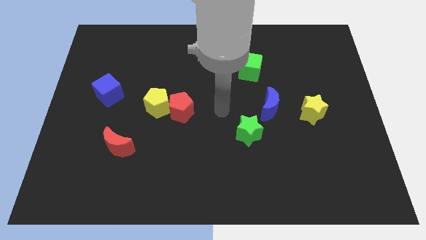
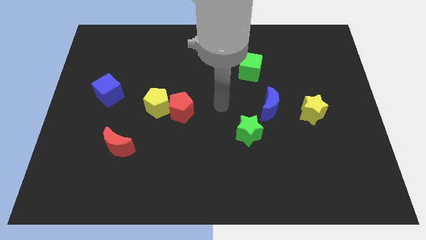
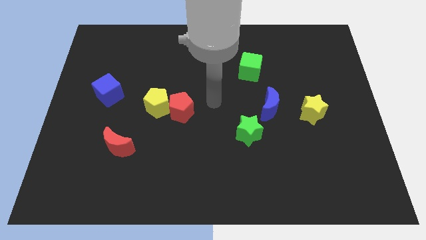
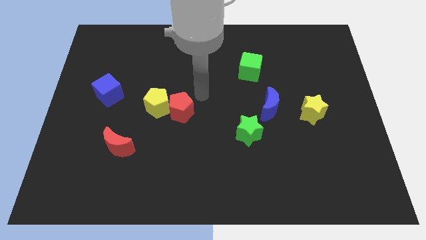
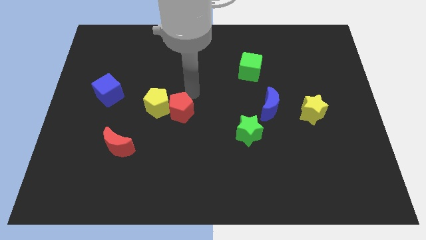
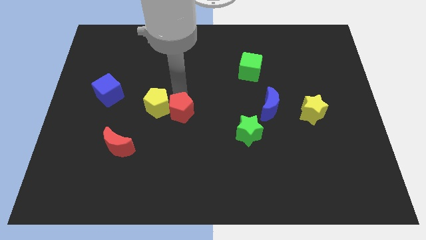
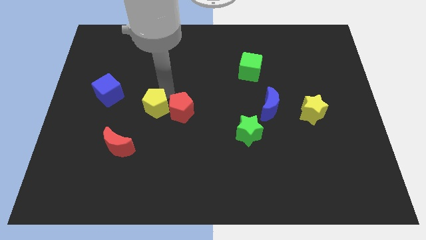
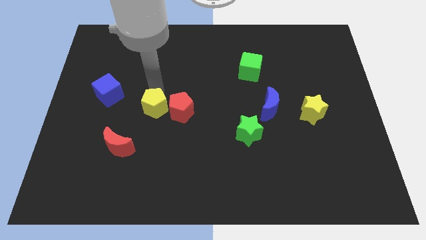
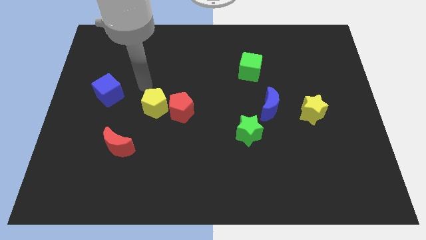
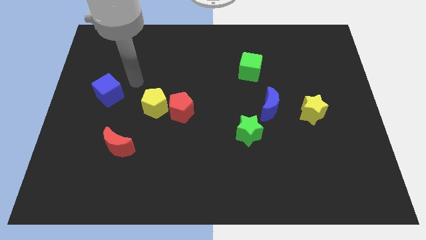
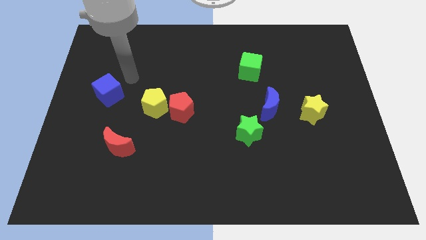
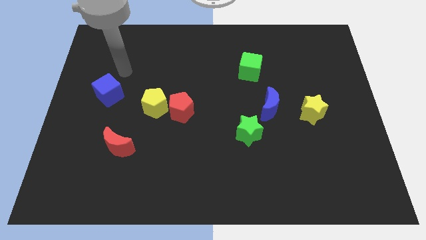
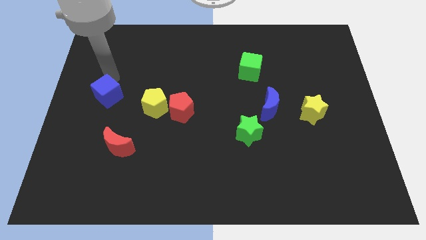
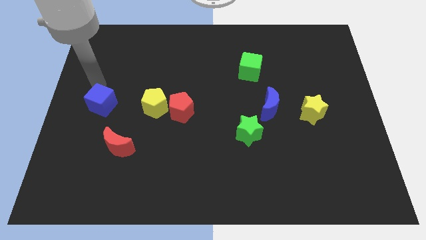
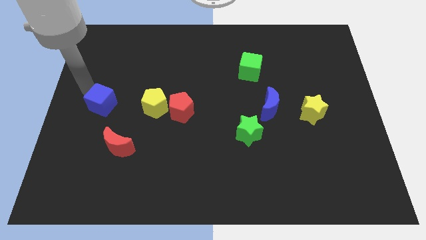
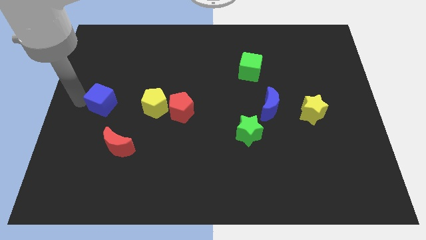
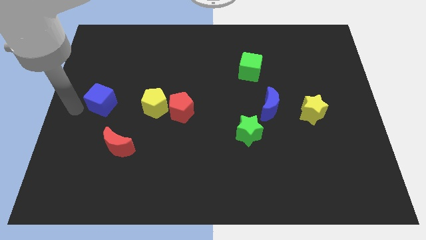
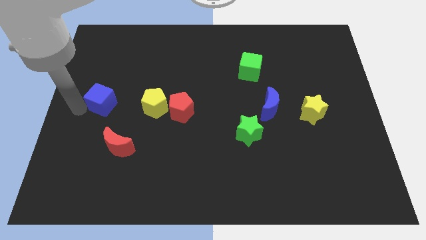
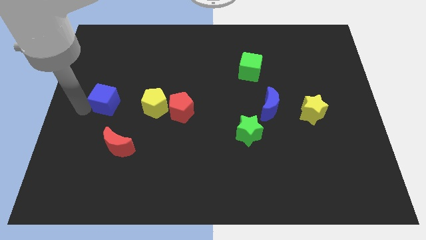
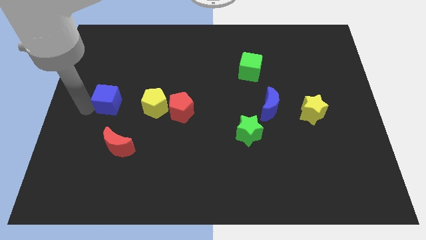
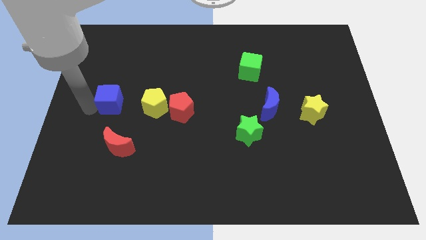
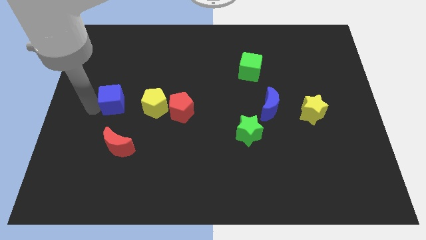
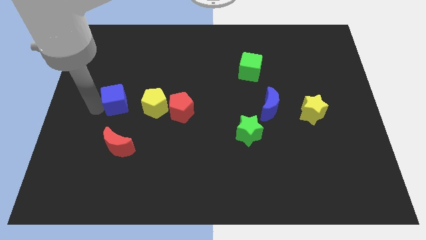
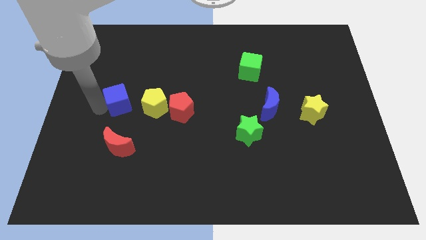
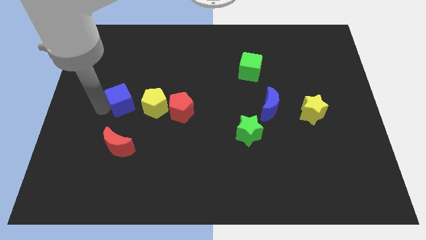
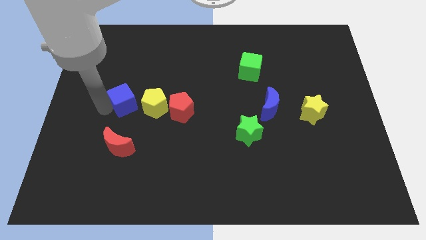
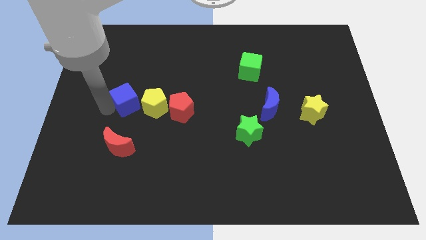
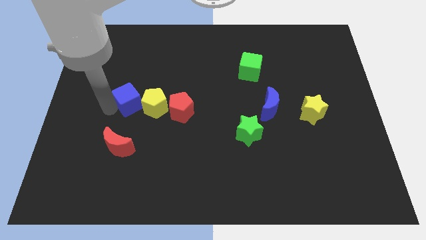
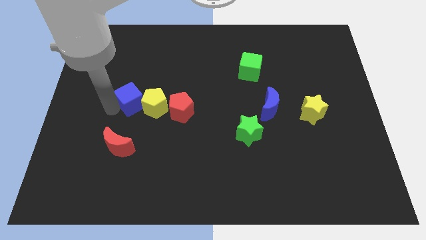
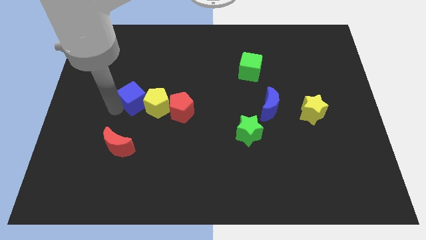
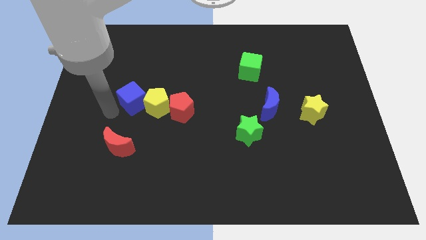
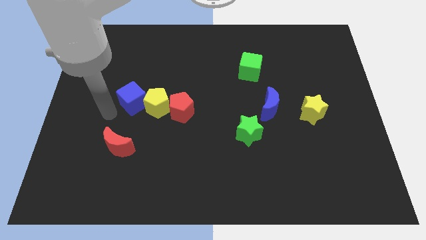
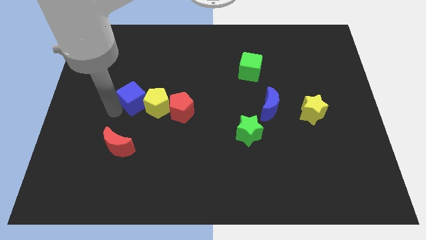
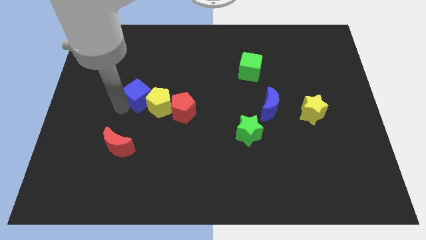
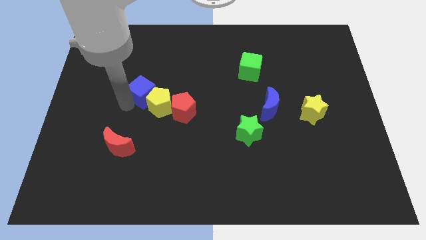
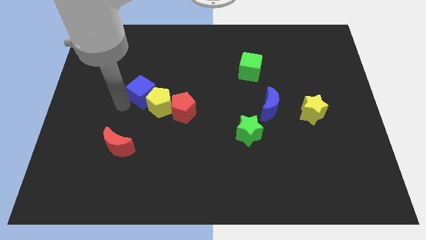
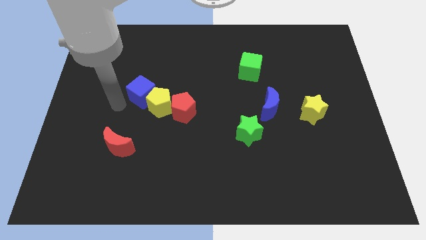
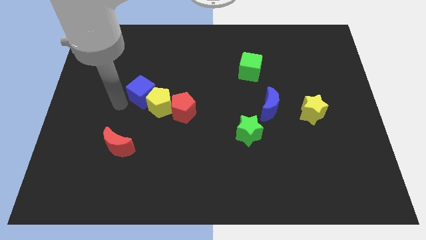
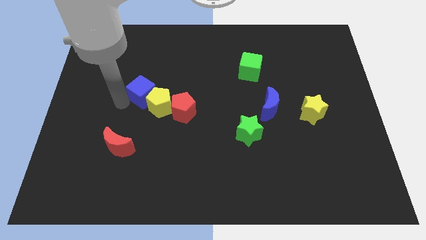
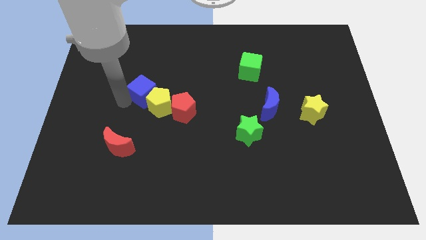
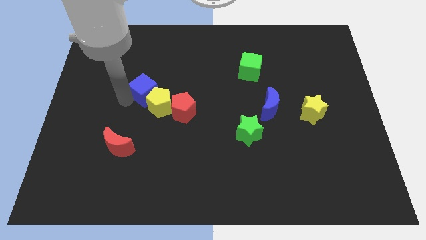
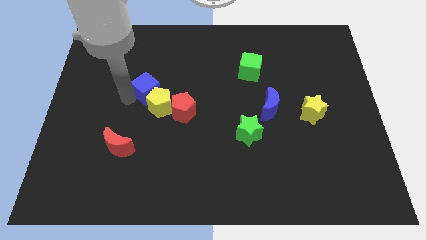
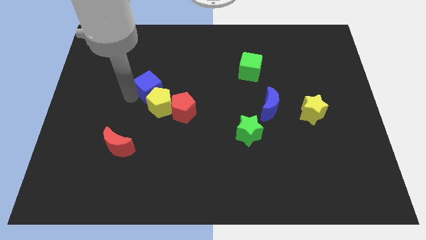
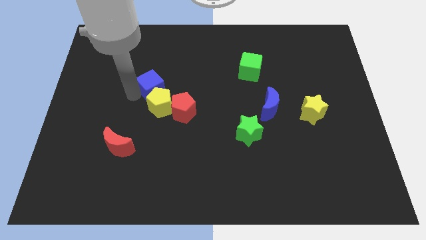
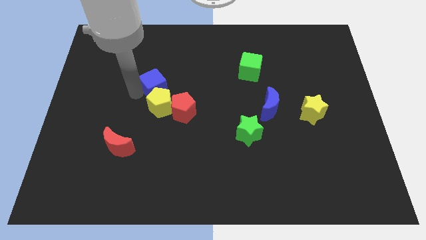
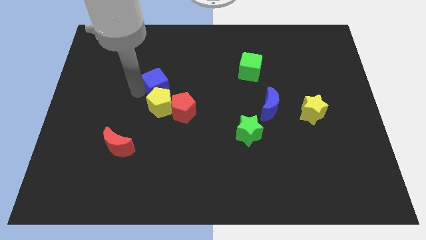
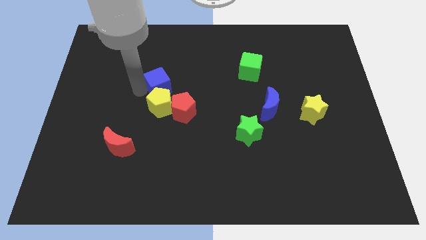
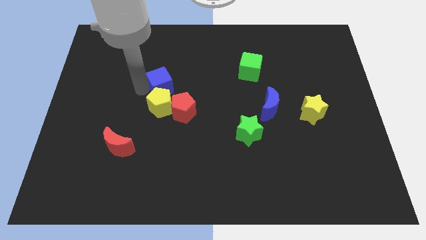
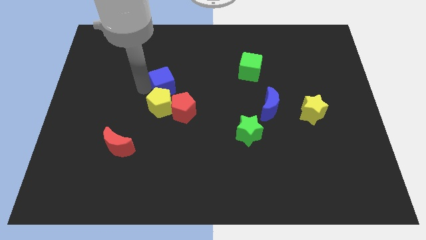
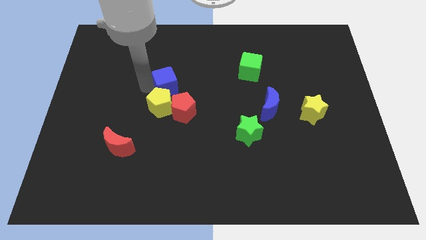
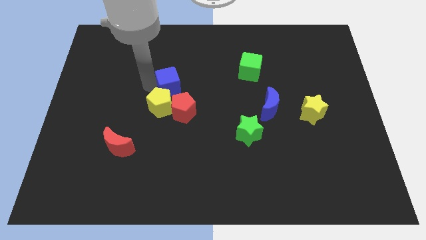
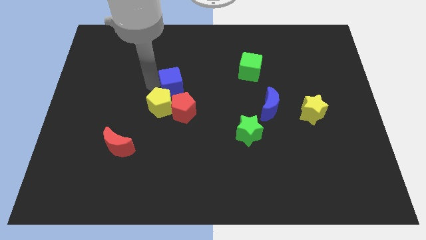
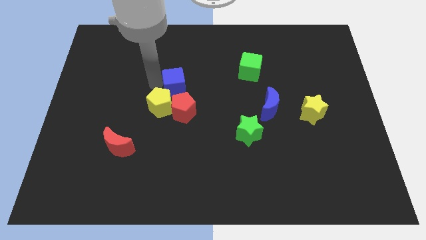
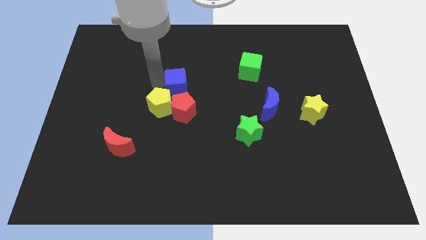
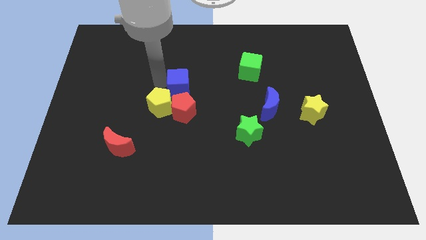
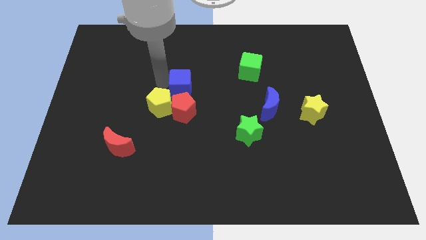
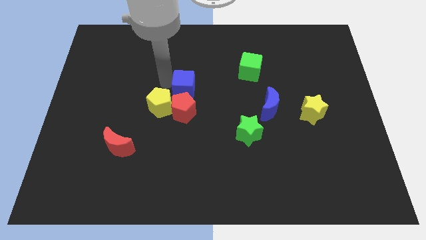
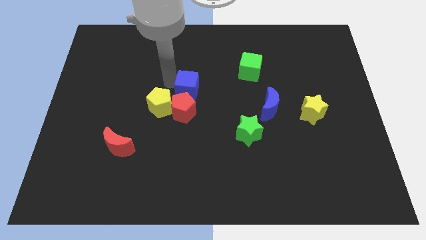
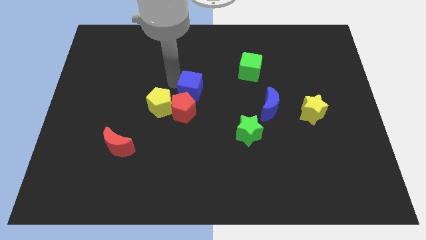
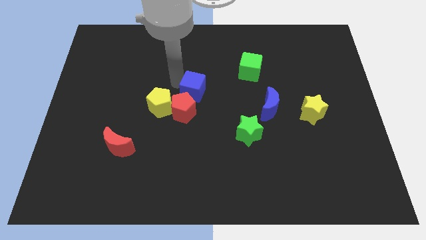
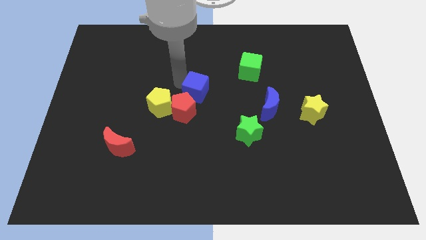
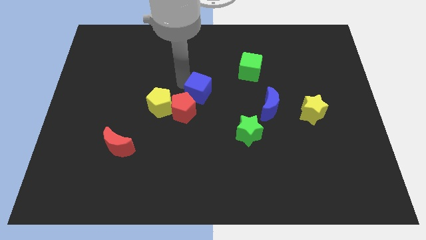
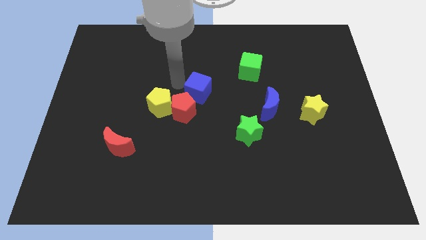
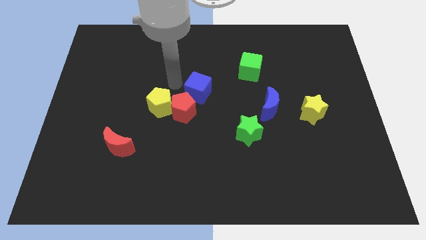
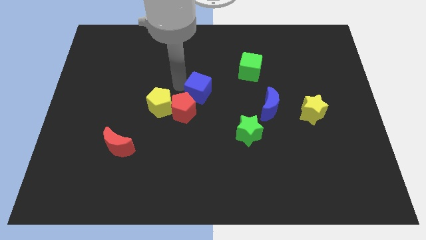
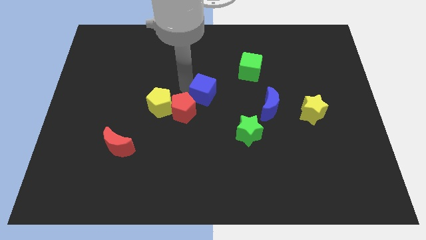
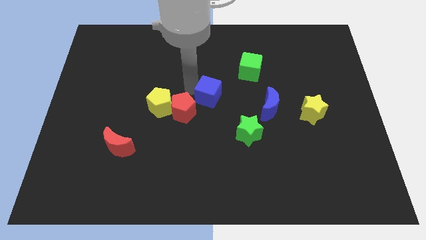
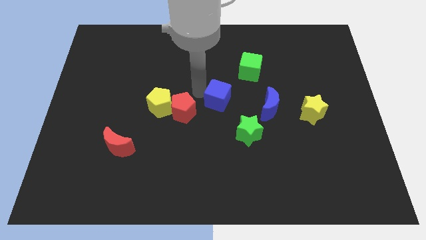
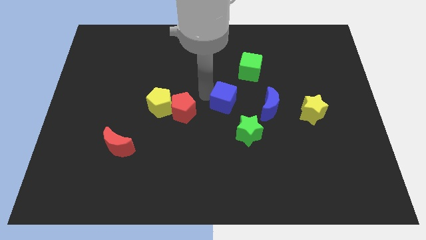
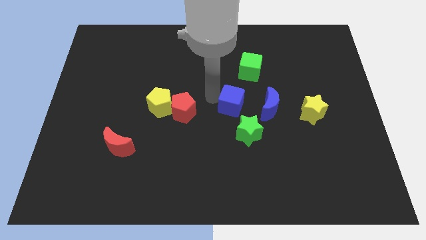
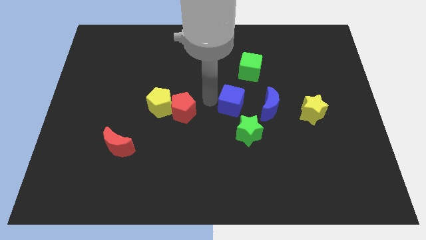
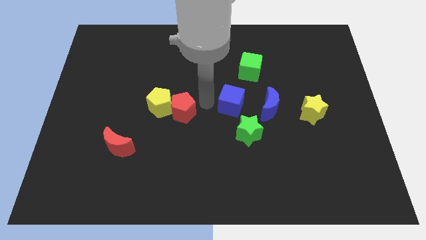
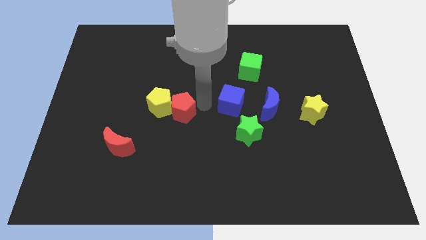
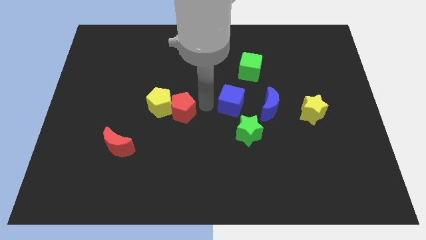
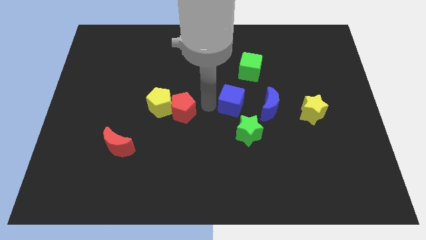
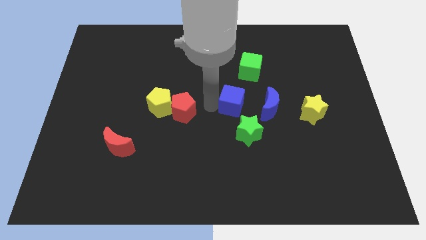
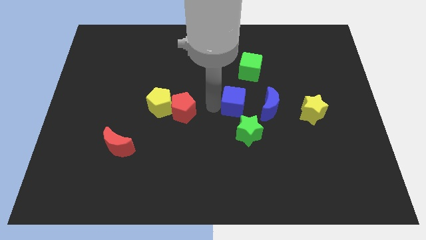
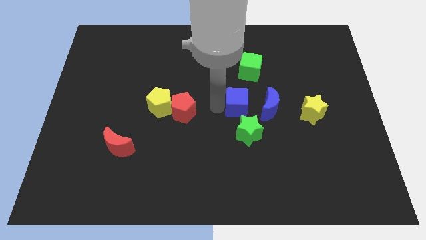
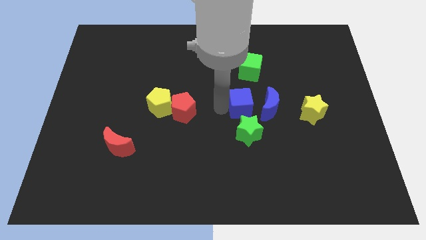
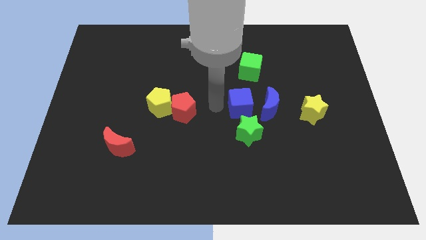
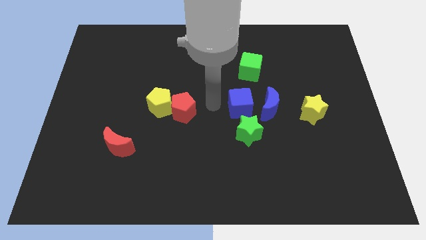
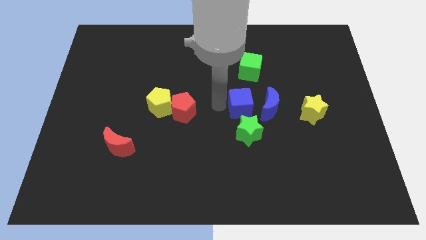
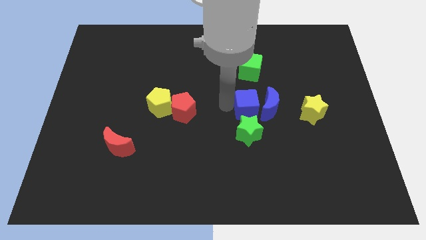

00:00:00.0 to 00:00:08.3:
slide the blue cube close to the blue moon
